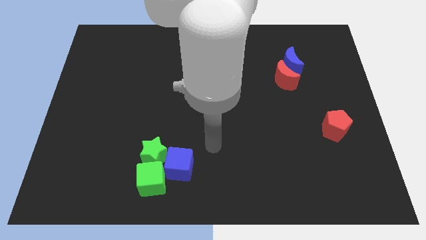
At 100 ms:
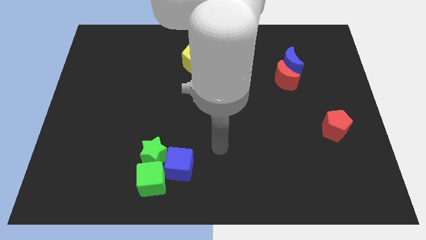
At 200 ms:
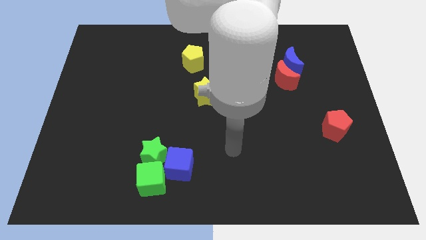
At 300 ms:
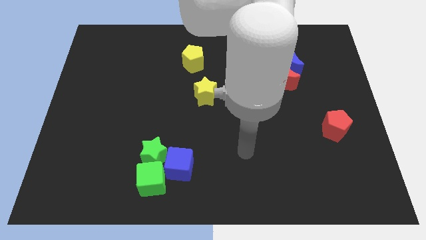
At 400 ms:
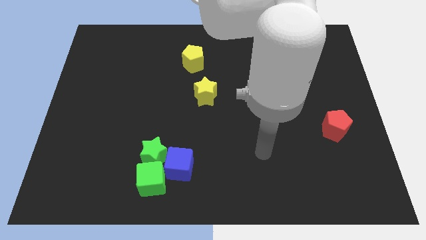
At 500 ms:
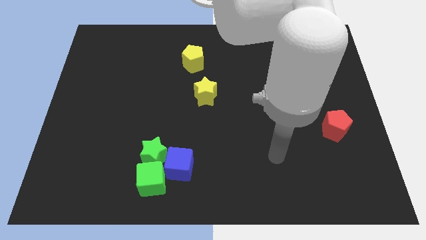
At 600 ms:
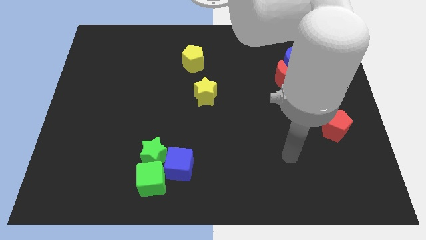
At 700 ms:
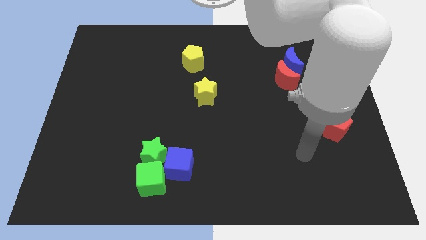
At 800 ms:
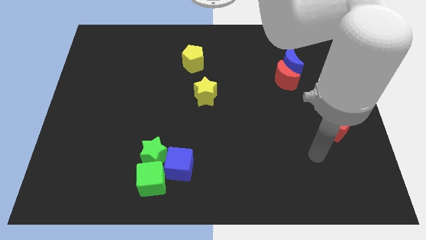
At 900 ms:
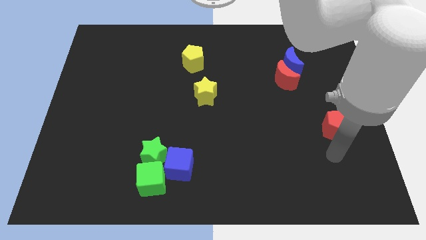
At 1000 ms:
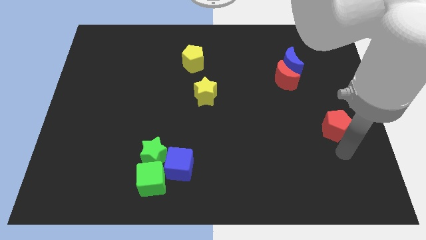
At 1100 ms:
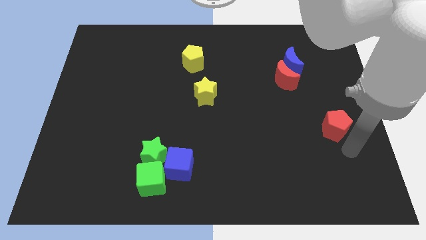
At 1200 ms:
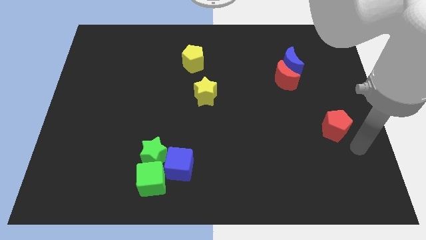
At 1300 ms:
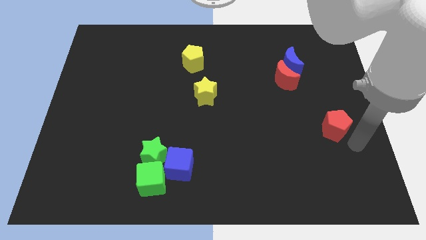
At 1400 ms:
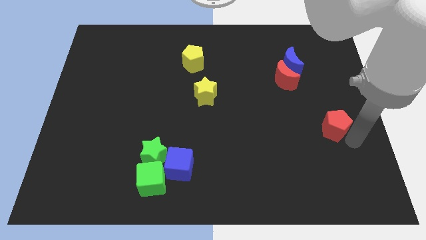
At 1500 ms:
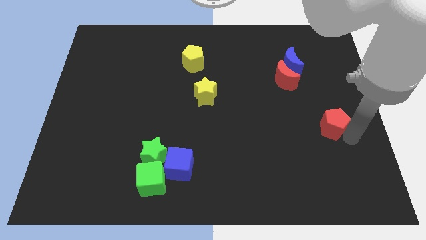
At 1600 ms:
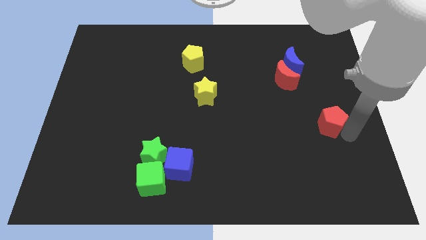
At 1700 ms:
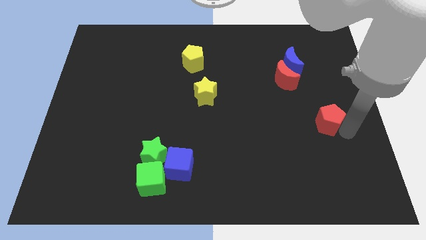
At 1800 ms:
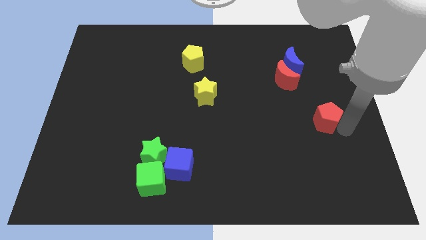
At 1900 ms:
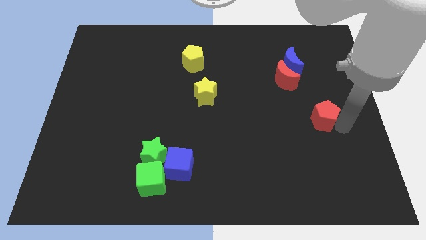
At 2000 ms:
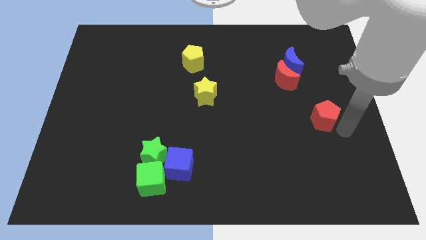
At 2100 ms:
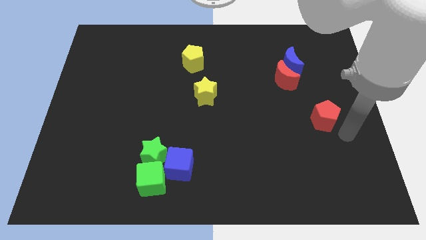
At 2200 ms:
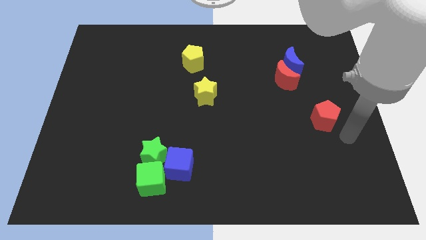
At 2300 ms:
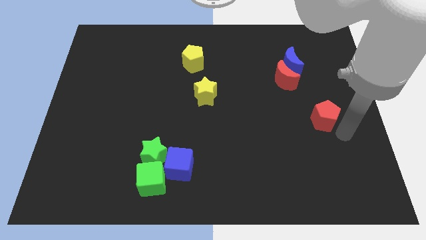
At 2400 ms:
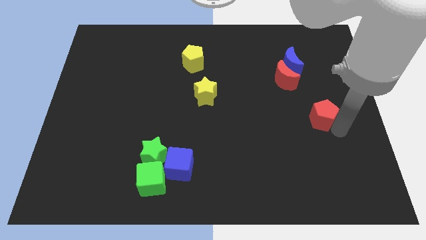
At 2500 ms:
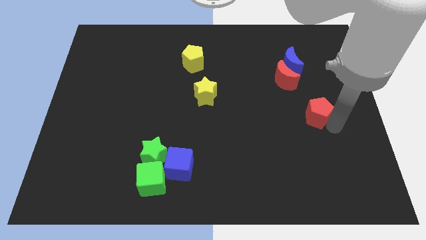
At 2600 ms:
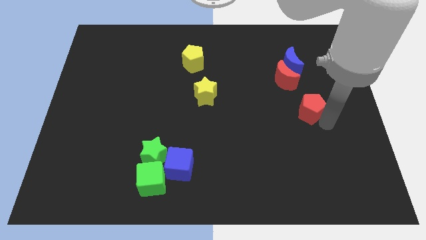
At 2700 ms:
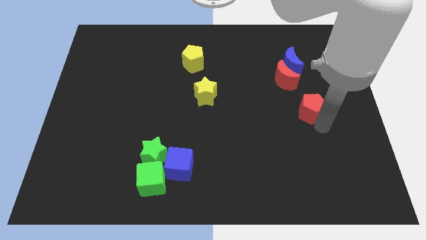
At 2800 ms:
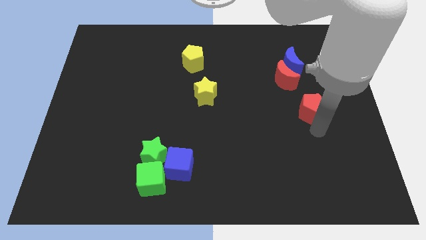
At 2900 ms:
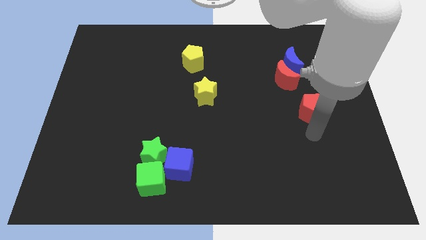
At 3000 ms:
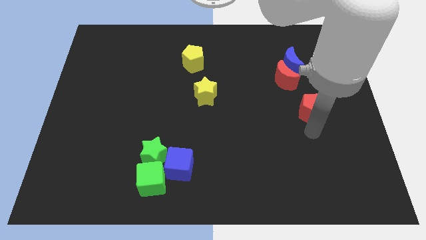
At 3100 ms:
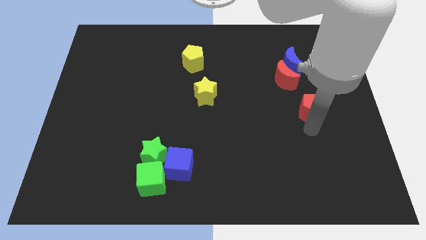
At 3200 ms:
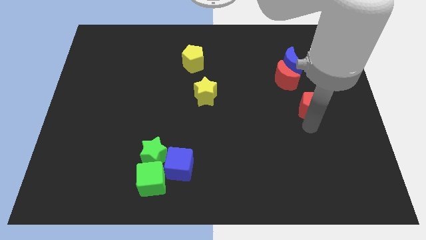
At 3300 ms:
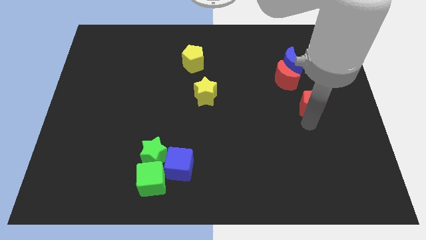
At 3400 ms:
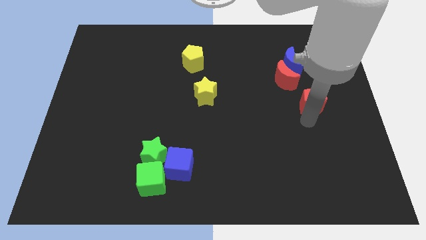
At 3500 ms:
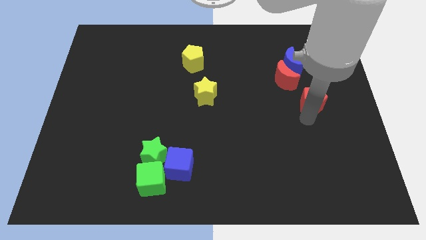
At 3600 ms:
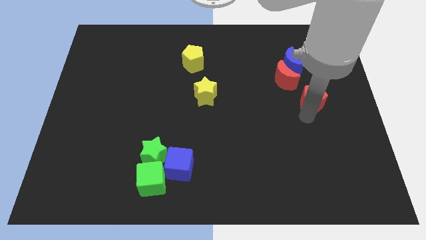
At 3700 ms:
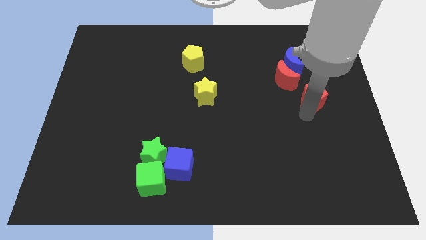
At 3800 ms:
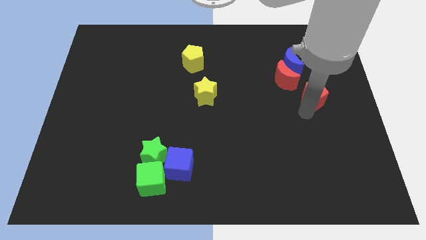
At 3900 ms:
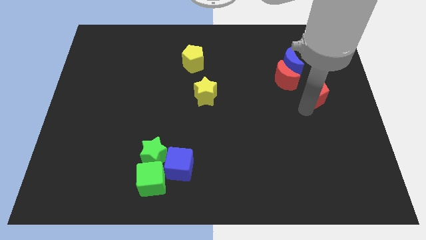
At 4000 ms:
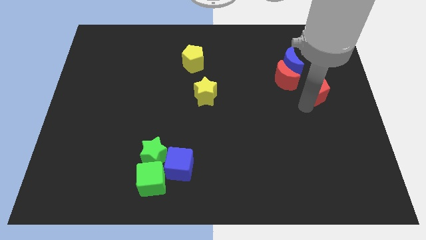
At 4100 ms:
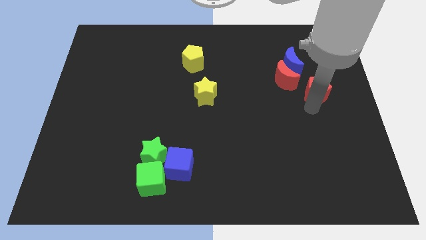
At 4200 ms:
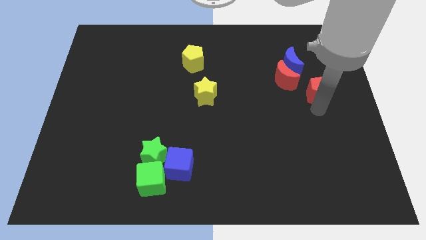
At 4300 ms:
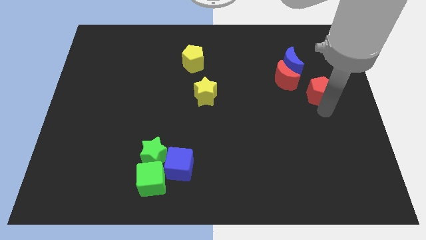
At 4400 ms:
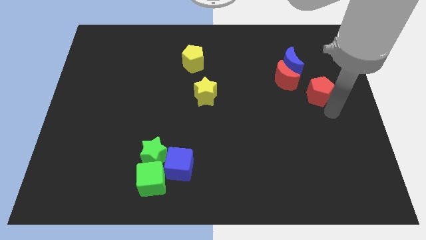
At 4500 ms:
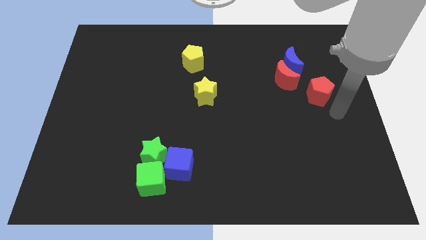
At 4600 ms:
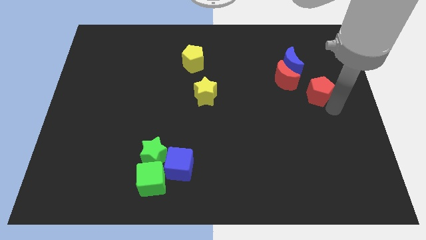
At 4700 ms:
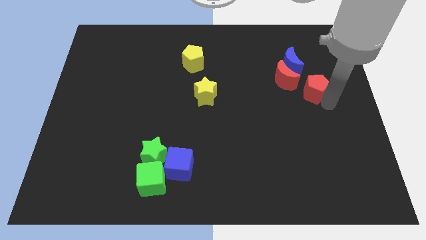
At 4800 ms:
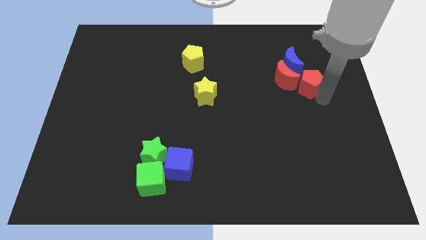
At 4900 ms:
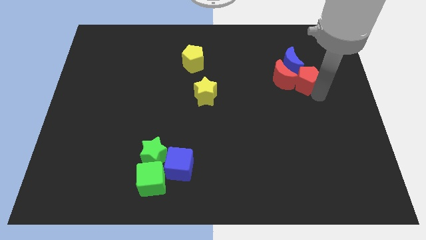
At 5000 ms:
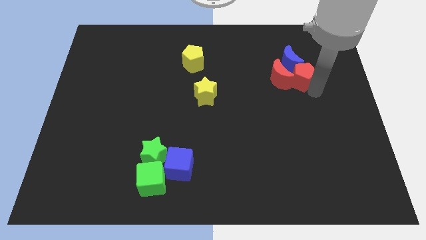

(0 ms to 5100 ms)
move the red pentagon towards the blue moon

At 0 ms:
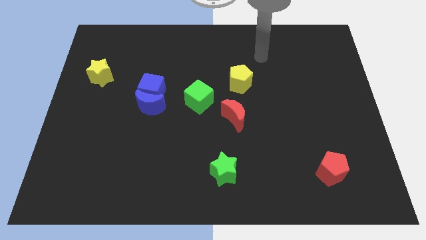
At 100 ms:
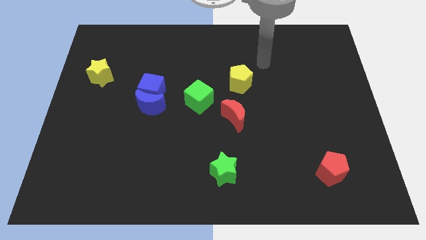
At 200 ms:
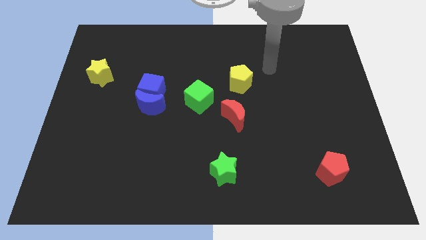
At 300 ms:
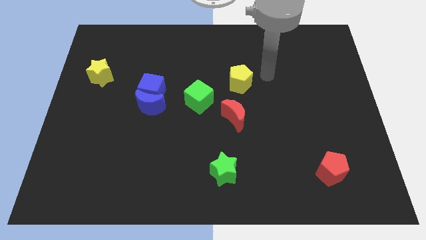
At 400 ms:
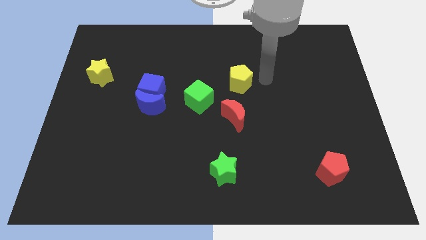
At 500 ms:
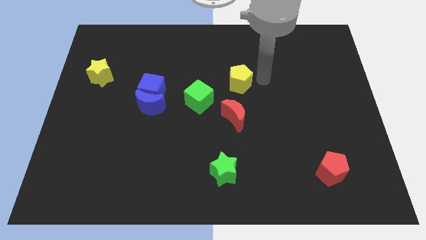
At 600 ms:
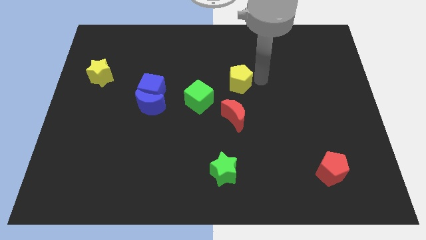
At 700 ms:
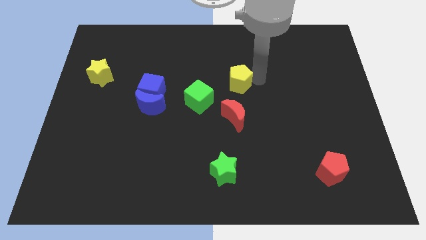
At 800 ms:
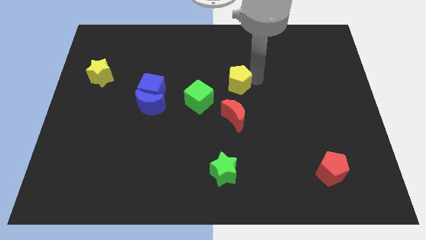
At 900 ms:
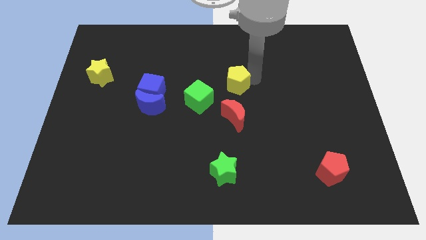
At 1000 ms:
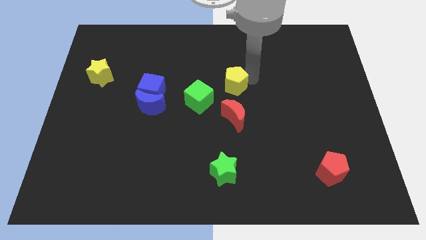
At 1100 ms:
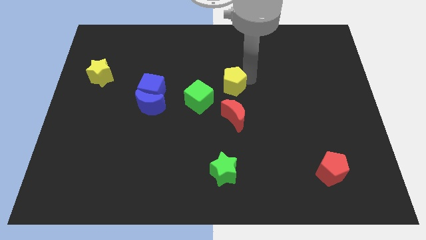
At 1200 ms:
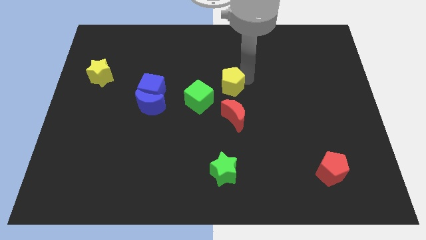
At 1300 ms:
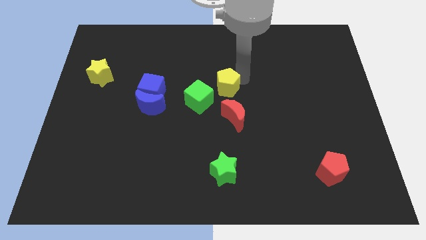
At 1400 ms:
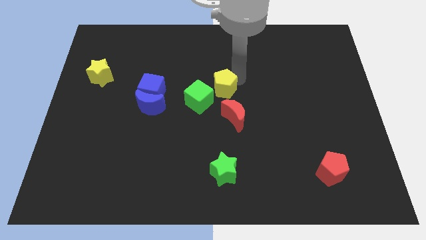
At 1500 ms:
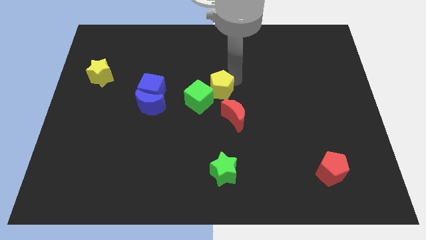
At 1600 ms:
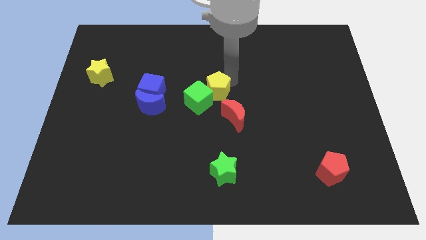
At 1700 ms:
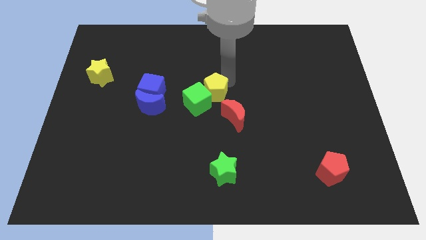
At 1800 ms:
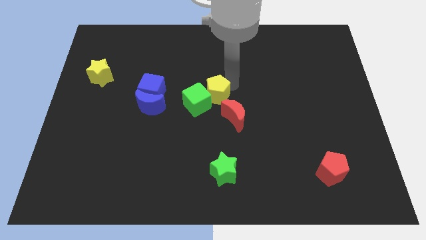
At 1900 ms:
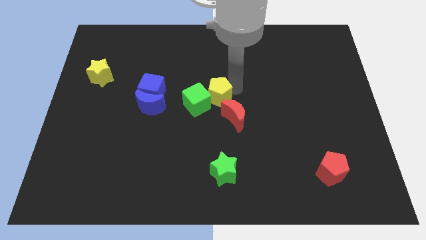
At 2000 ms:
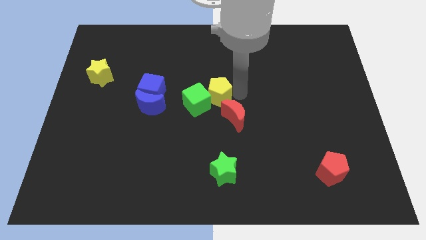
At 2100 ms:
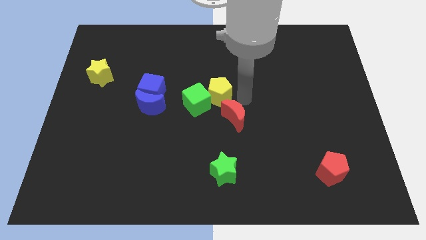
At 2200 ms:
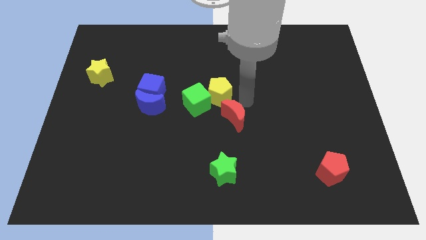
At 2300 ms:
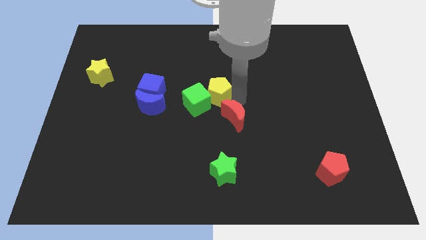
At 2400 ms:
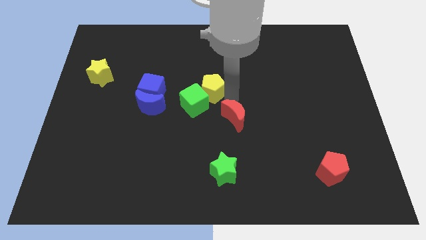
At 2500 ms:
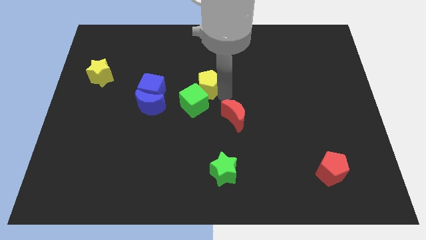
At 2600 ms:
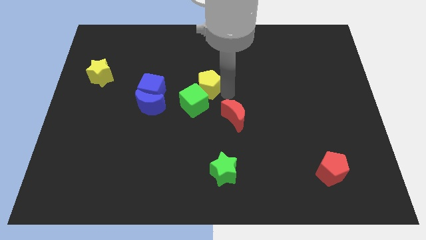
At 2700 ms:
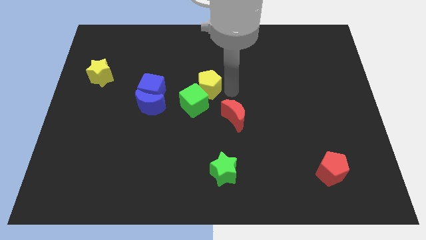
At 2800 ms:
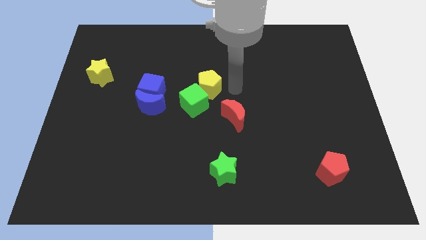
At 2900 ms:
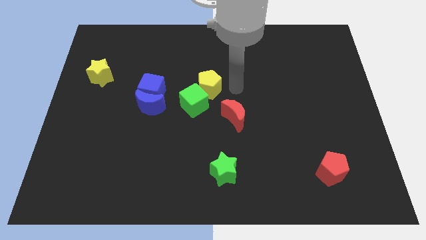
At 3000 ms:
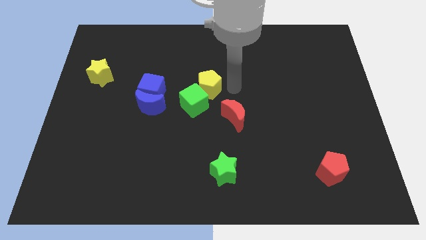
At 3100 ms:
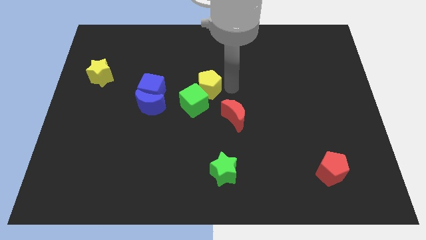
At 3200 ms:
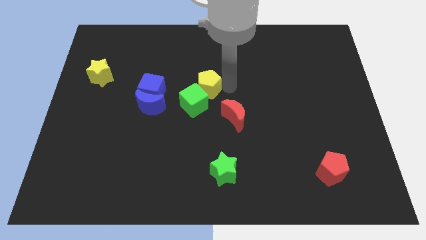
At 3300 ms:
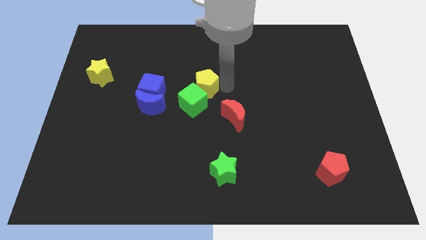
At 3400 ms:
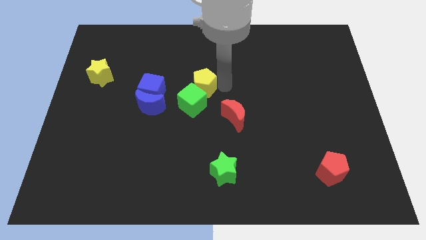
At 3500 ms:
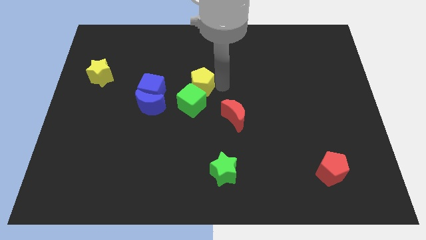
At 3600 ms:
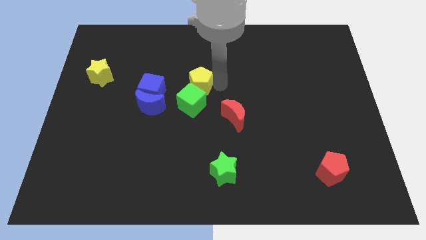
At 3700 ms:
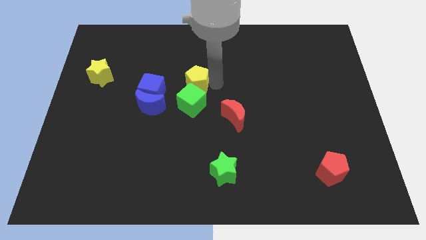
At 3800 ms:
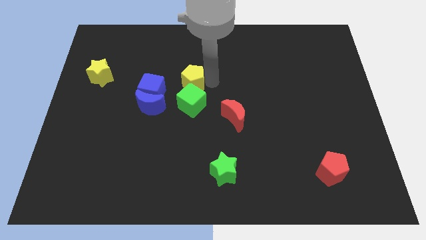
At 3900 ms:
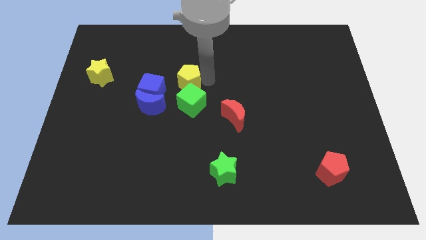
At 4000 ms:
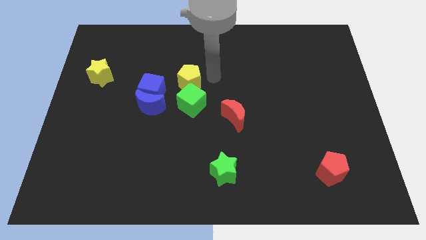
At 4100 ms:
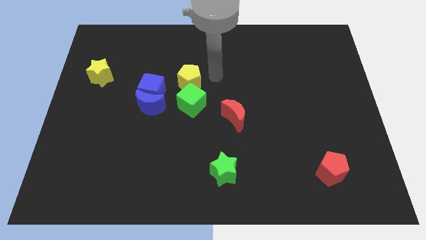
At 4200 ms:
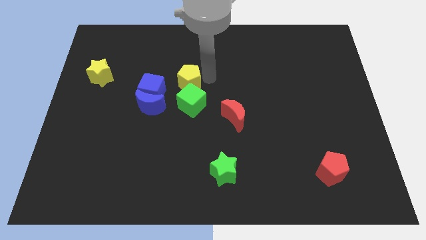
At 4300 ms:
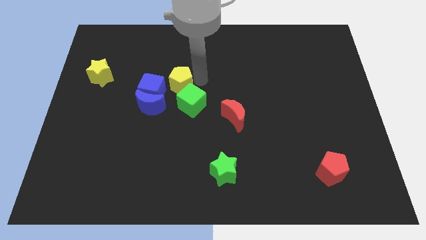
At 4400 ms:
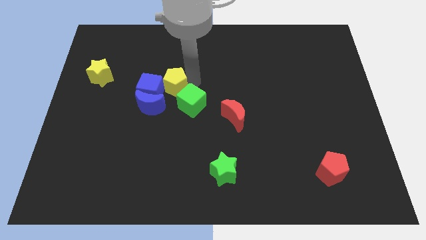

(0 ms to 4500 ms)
put the yellow pentagon next to the blue cube
